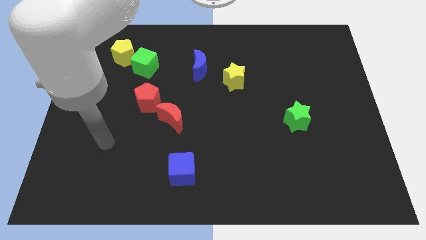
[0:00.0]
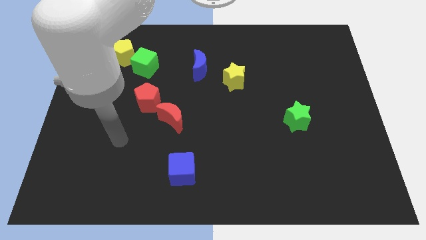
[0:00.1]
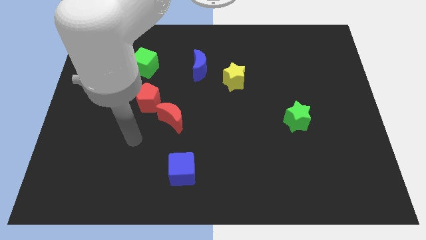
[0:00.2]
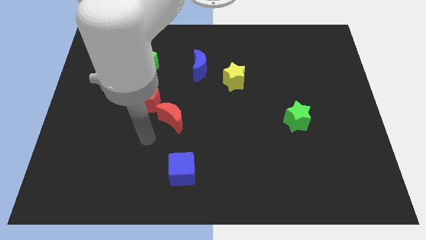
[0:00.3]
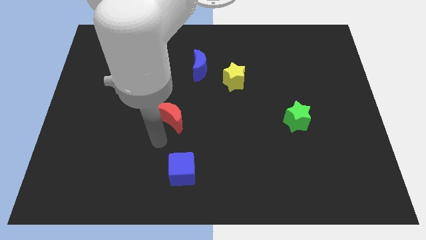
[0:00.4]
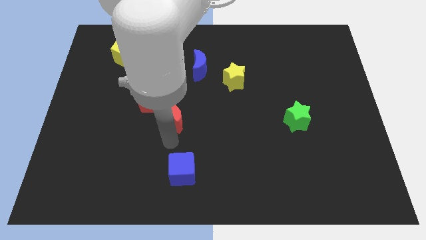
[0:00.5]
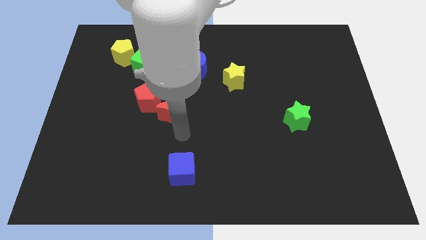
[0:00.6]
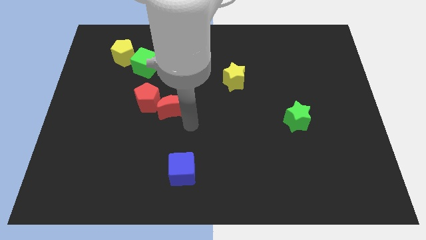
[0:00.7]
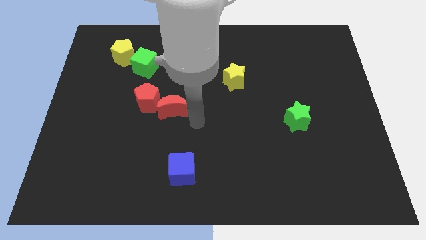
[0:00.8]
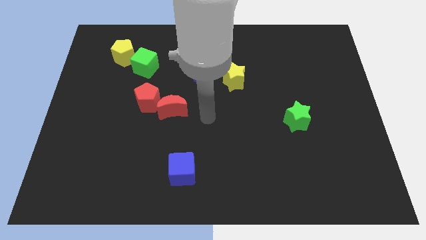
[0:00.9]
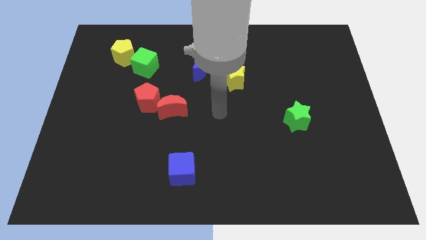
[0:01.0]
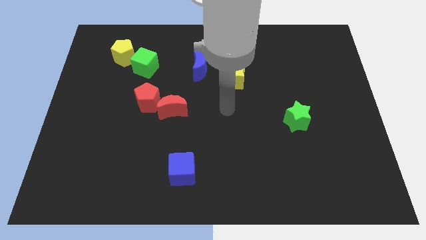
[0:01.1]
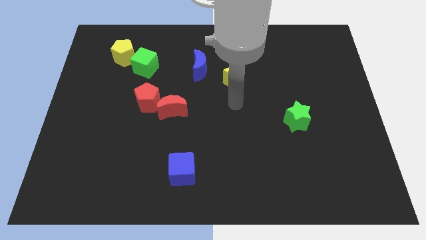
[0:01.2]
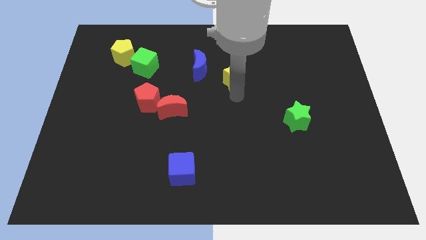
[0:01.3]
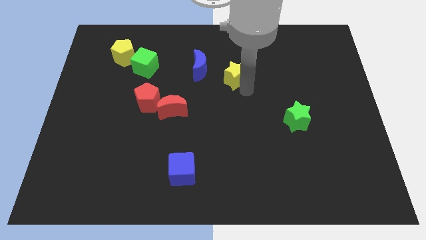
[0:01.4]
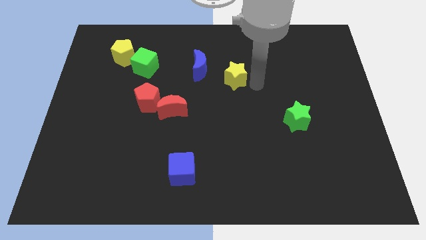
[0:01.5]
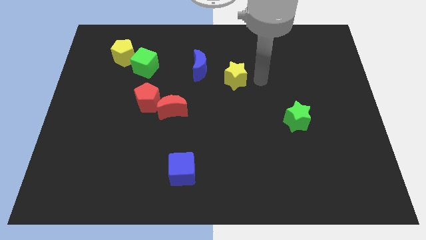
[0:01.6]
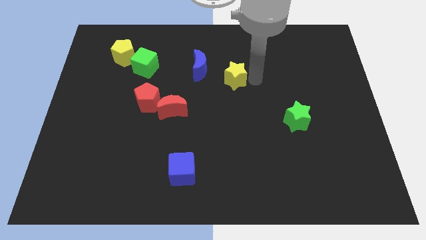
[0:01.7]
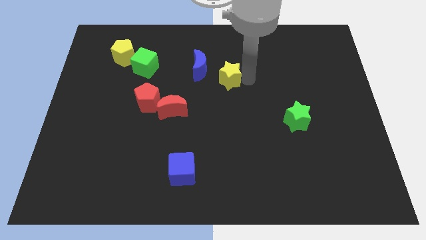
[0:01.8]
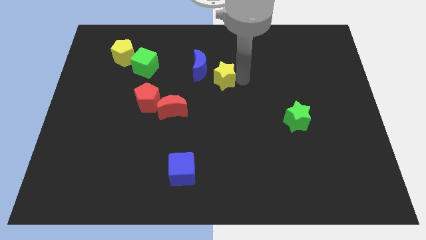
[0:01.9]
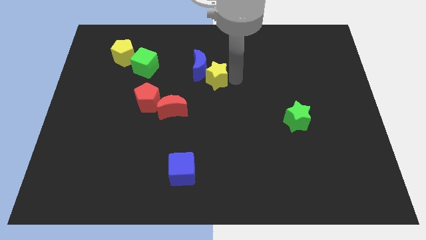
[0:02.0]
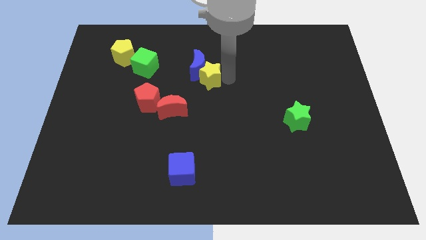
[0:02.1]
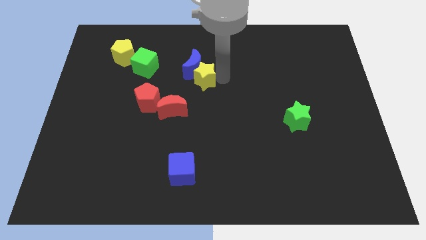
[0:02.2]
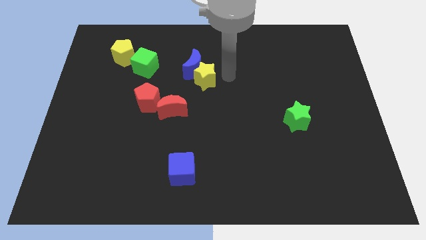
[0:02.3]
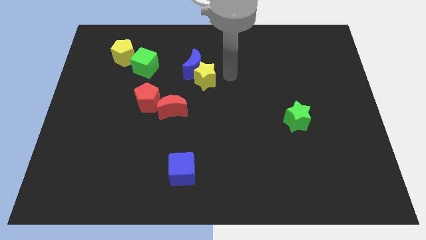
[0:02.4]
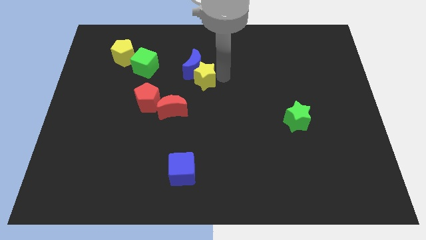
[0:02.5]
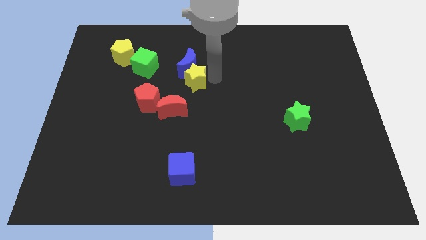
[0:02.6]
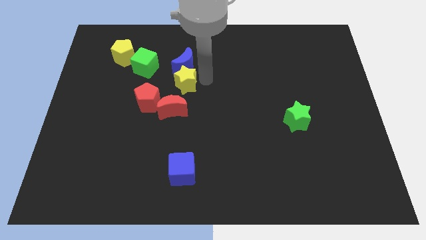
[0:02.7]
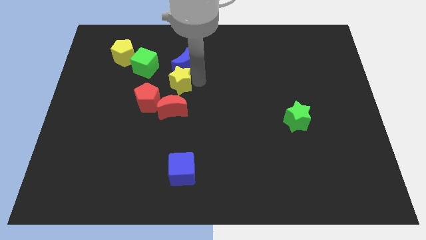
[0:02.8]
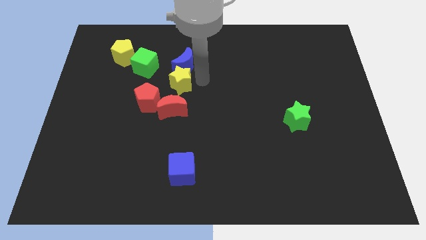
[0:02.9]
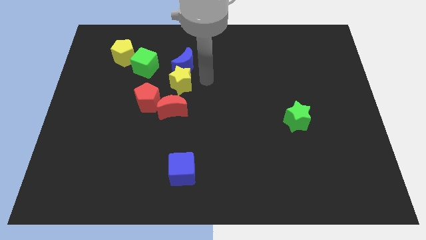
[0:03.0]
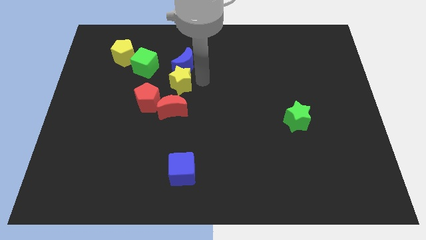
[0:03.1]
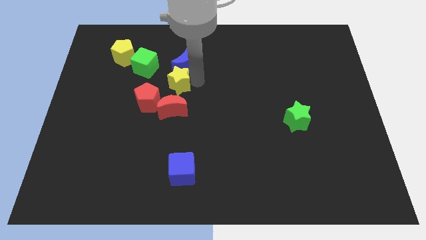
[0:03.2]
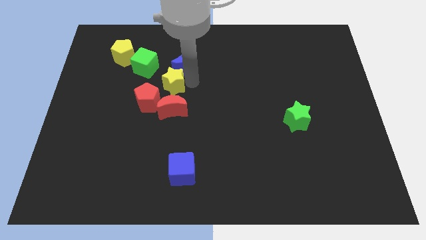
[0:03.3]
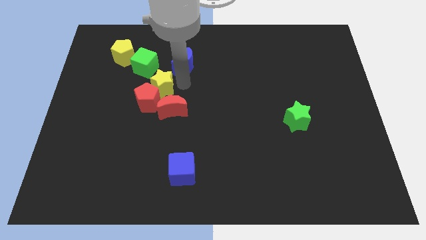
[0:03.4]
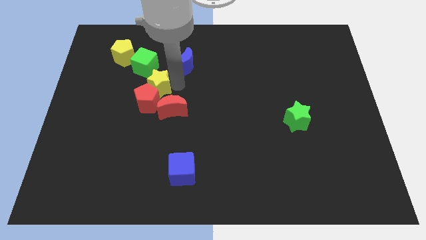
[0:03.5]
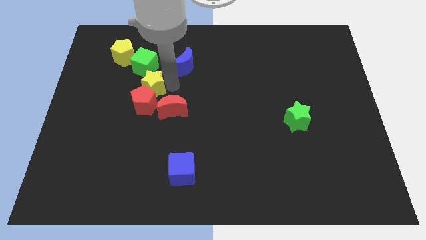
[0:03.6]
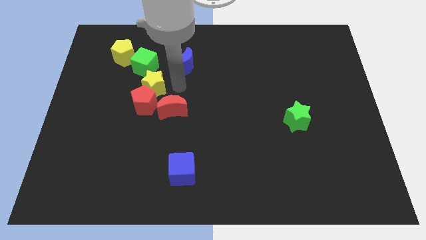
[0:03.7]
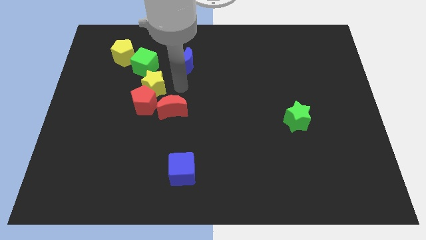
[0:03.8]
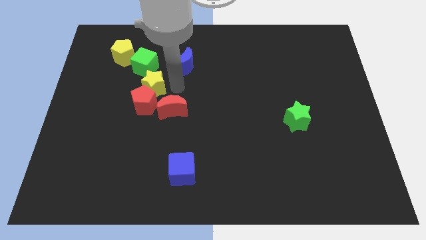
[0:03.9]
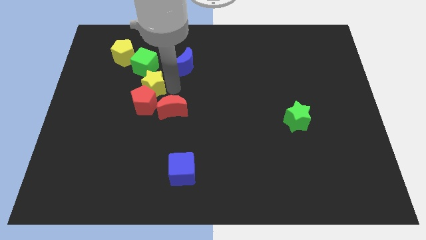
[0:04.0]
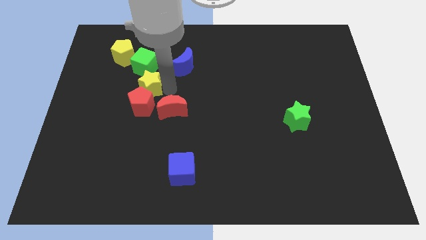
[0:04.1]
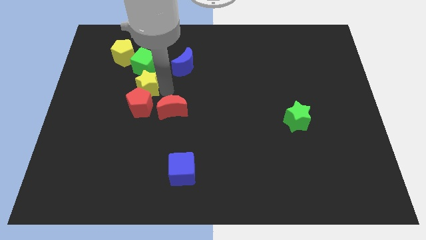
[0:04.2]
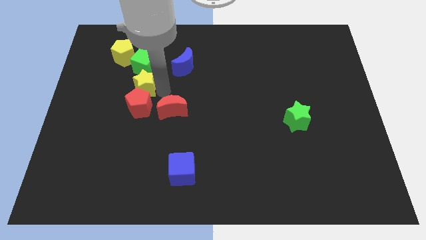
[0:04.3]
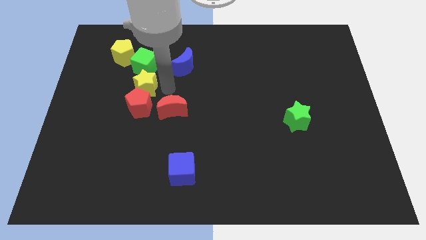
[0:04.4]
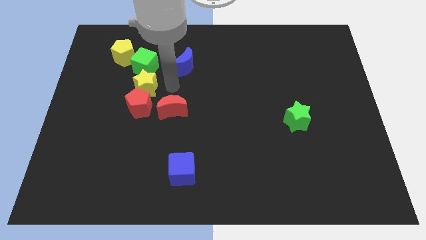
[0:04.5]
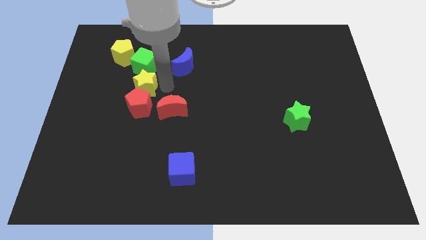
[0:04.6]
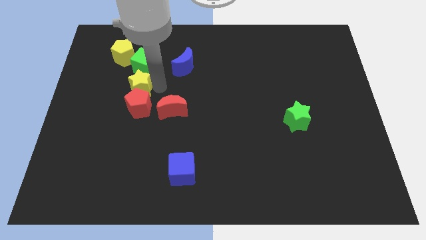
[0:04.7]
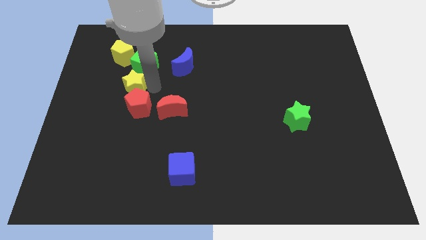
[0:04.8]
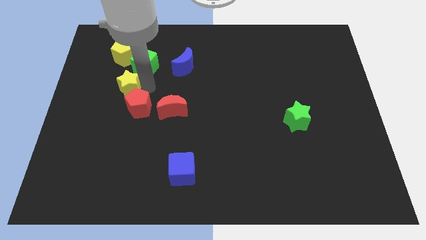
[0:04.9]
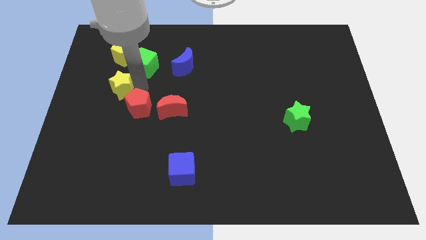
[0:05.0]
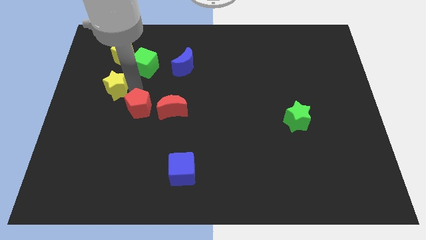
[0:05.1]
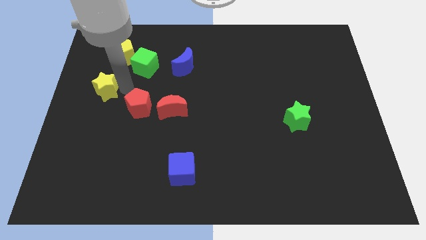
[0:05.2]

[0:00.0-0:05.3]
slide the yellow star to the center left

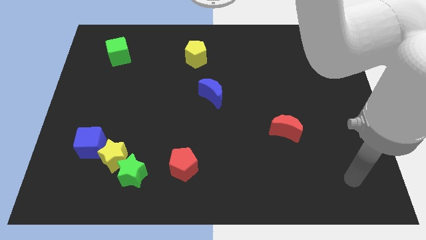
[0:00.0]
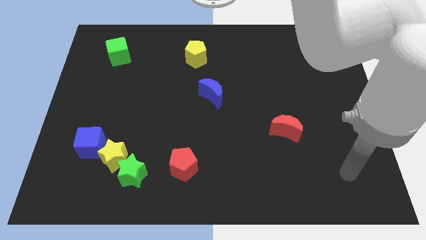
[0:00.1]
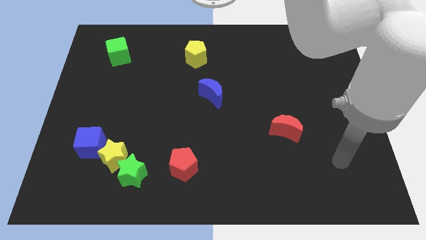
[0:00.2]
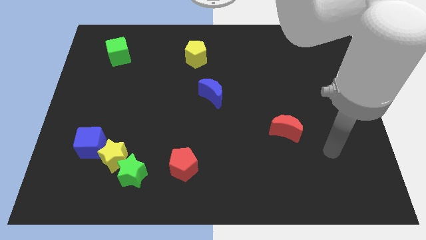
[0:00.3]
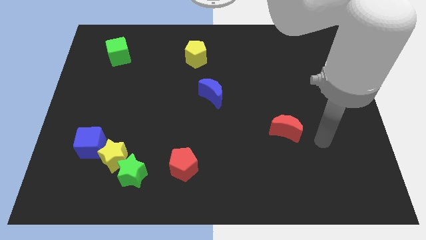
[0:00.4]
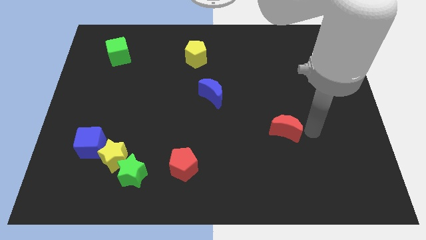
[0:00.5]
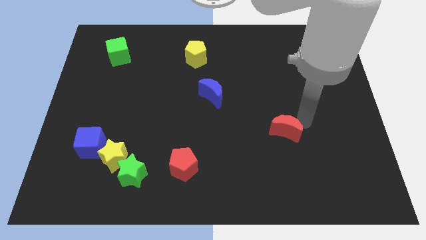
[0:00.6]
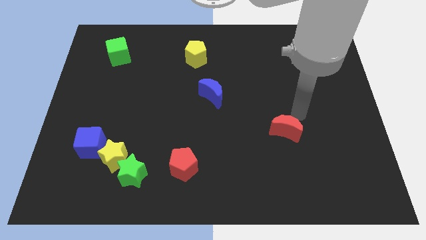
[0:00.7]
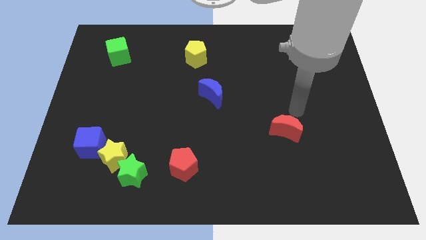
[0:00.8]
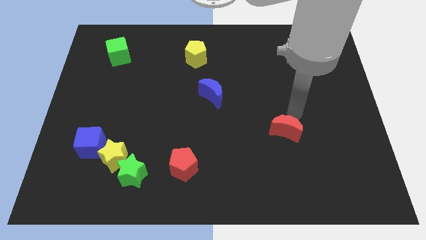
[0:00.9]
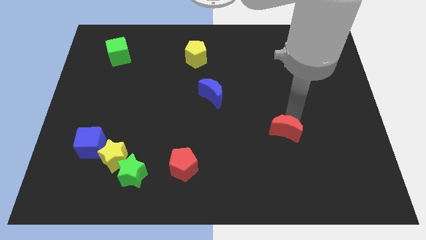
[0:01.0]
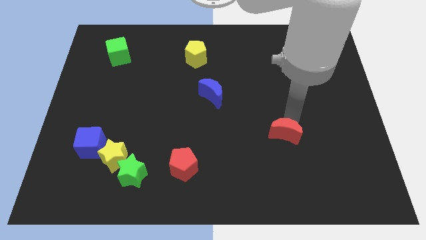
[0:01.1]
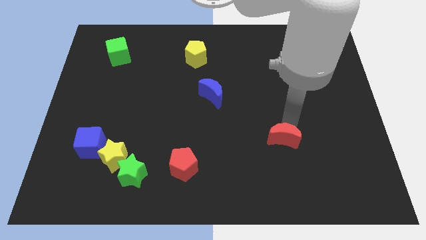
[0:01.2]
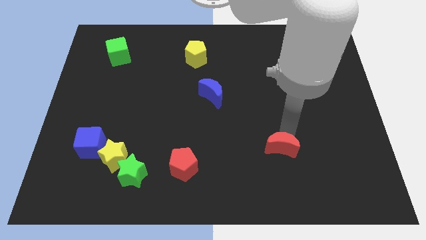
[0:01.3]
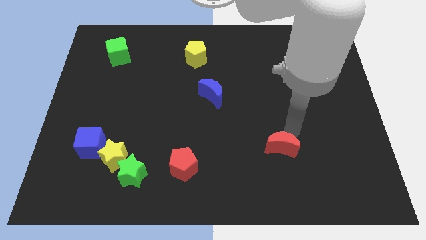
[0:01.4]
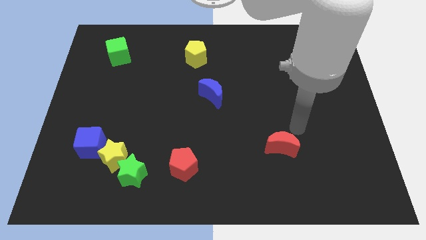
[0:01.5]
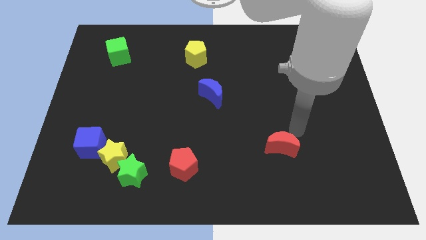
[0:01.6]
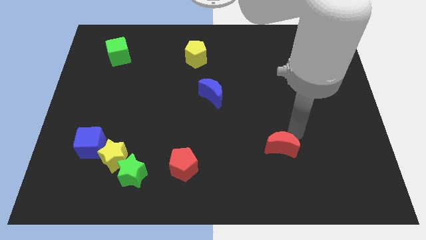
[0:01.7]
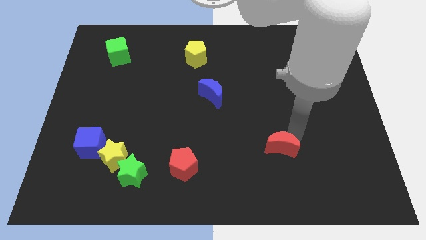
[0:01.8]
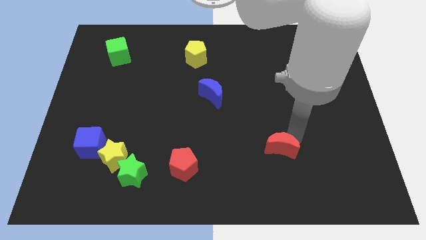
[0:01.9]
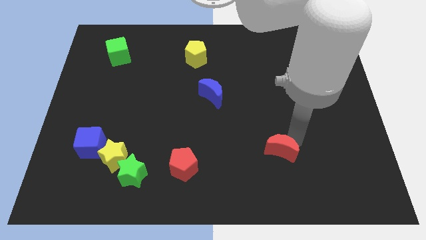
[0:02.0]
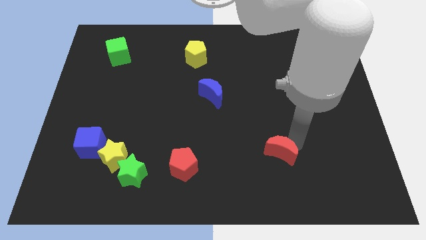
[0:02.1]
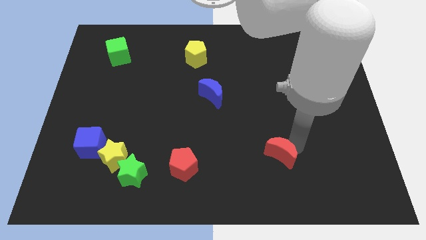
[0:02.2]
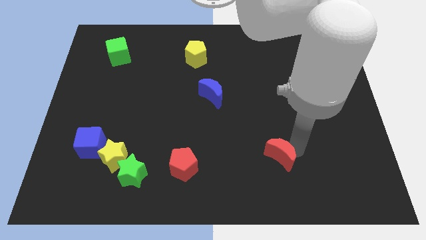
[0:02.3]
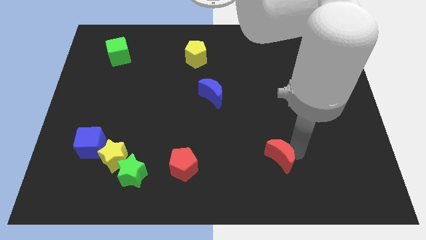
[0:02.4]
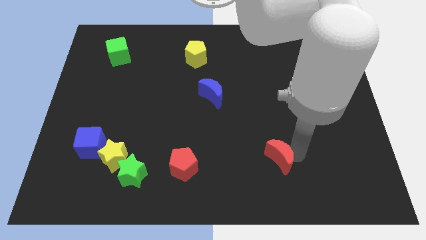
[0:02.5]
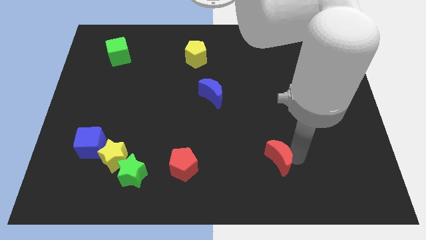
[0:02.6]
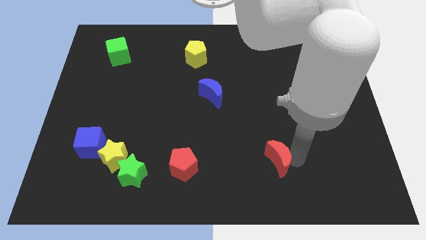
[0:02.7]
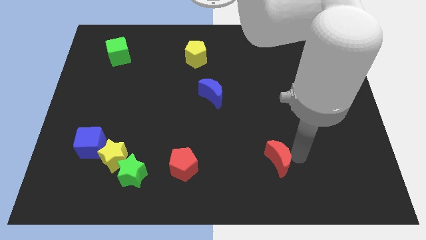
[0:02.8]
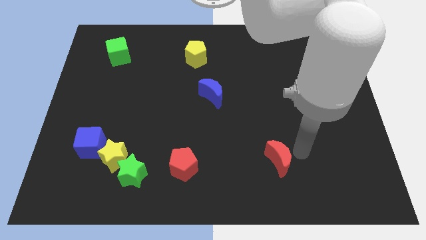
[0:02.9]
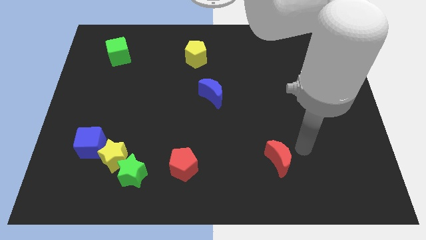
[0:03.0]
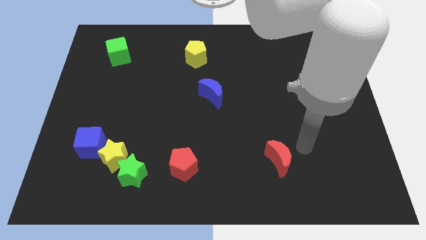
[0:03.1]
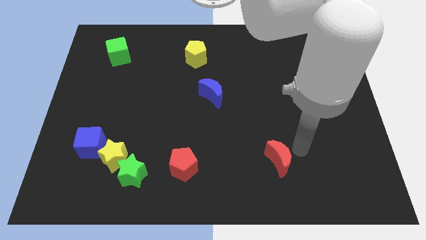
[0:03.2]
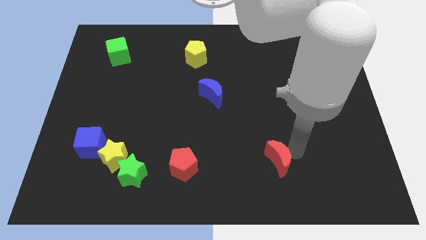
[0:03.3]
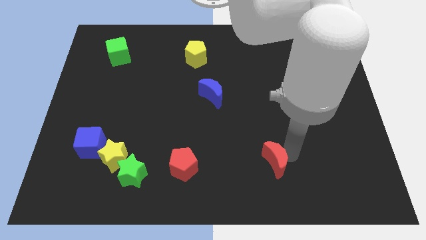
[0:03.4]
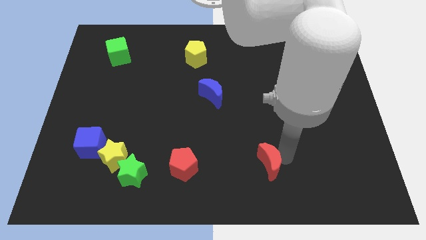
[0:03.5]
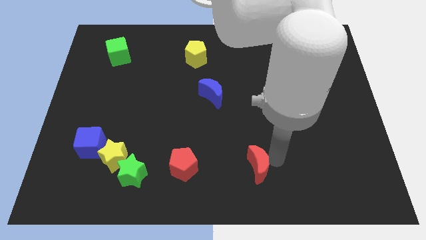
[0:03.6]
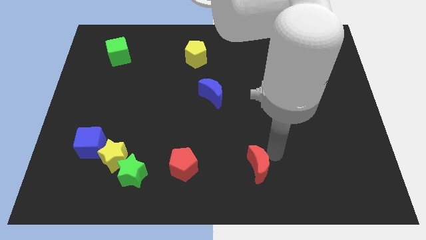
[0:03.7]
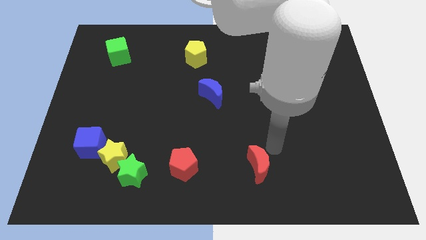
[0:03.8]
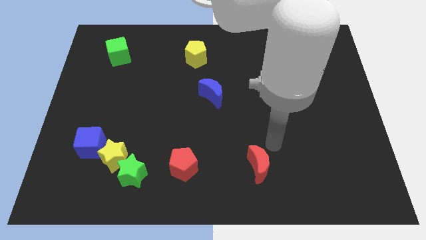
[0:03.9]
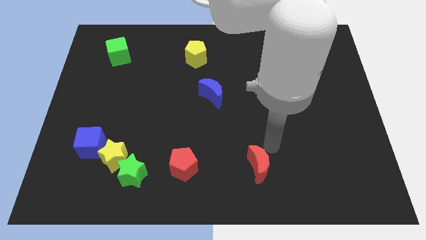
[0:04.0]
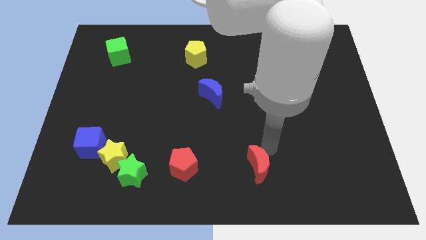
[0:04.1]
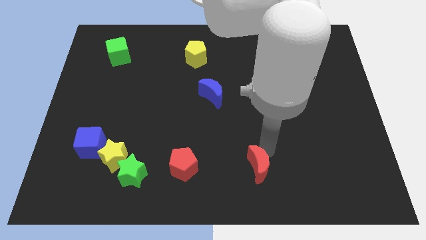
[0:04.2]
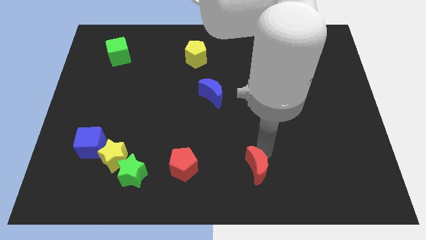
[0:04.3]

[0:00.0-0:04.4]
put the red moon to the bottom side
